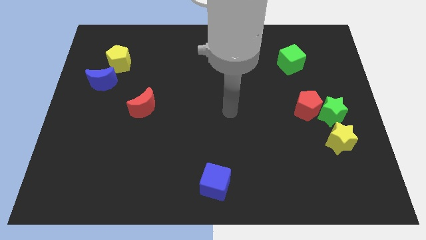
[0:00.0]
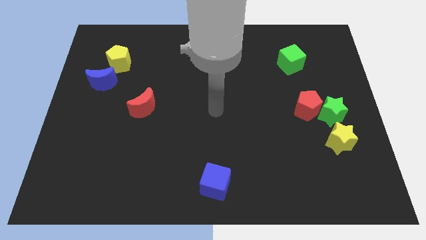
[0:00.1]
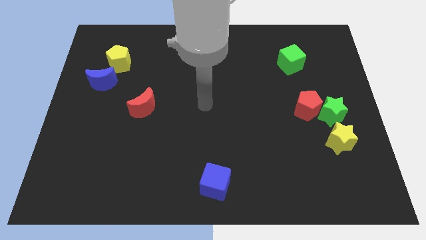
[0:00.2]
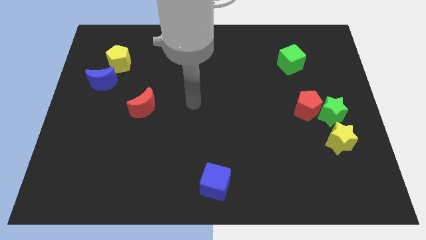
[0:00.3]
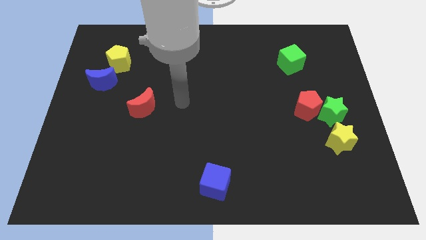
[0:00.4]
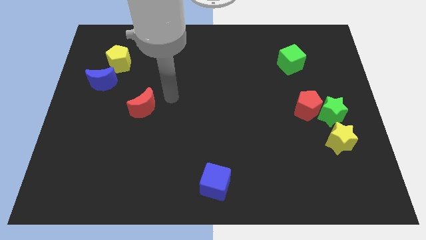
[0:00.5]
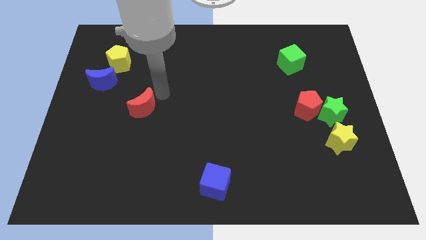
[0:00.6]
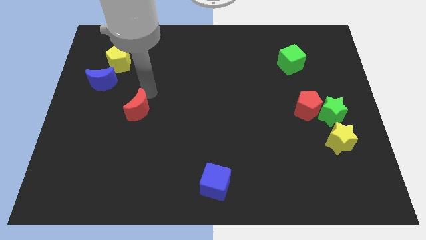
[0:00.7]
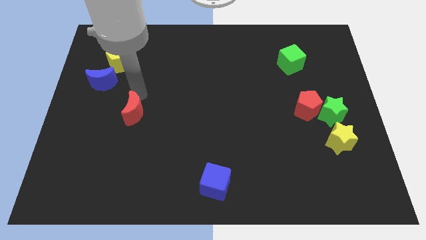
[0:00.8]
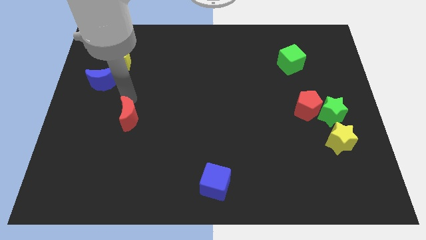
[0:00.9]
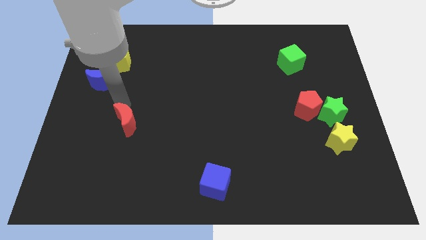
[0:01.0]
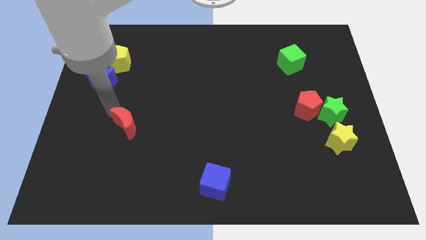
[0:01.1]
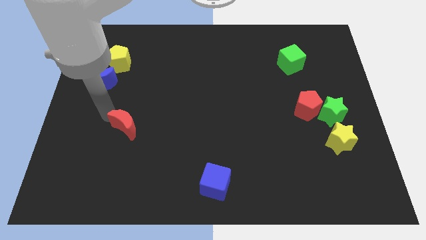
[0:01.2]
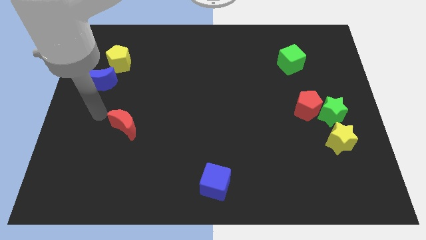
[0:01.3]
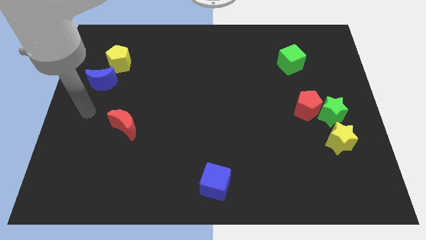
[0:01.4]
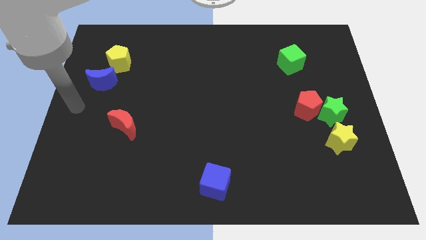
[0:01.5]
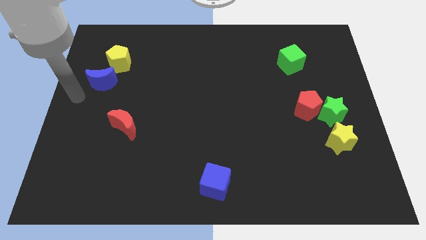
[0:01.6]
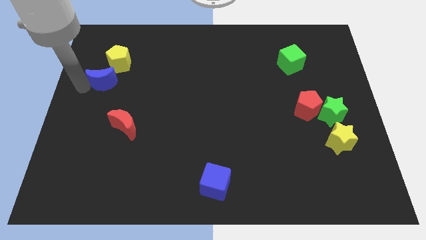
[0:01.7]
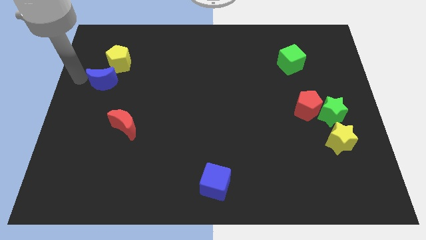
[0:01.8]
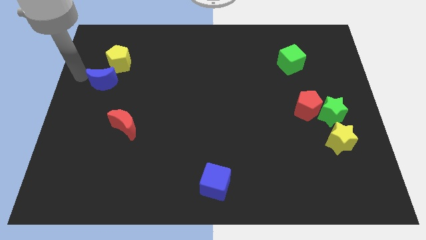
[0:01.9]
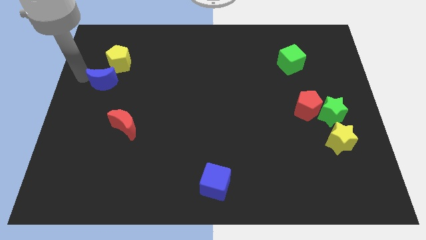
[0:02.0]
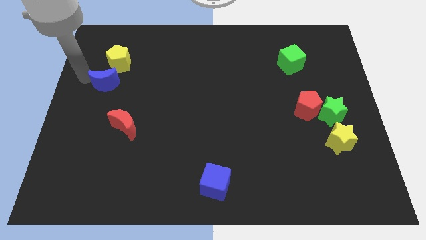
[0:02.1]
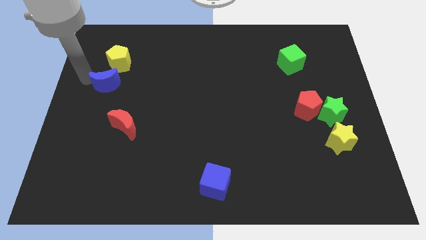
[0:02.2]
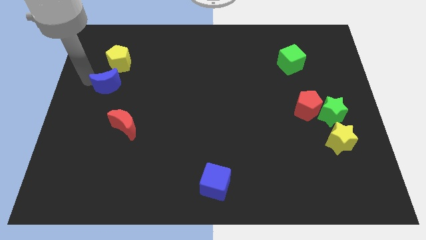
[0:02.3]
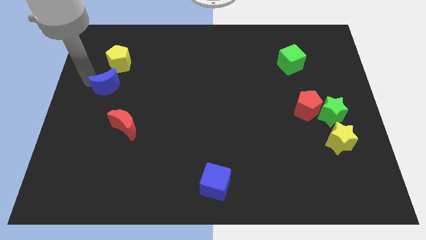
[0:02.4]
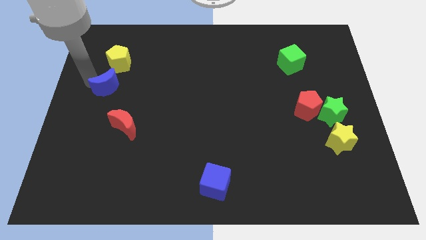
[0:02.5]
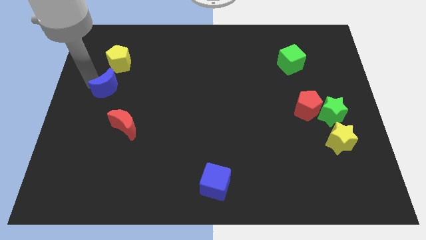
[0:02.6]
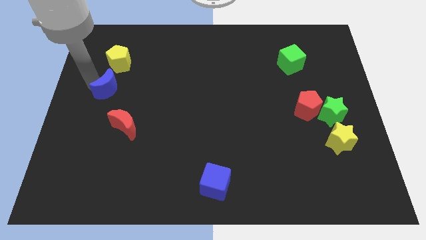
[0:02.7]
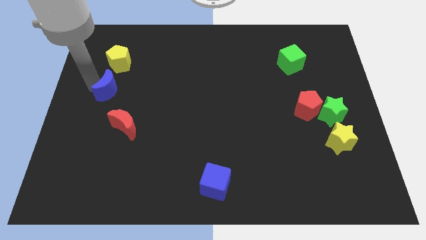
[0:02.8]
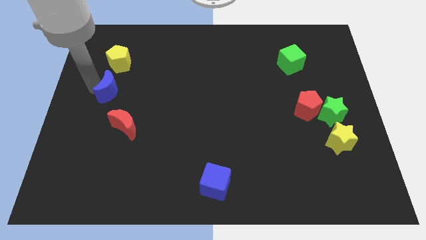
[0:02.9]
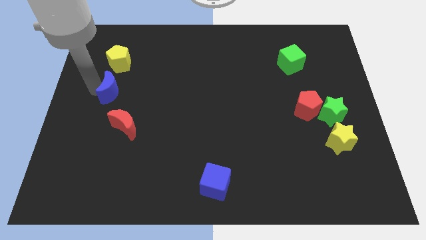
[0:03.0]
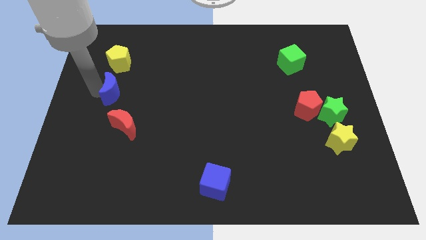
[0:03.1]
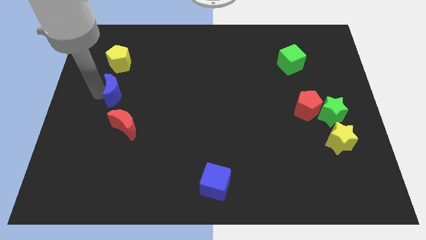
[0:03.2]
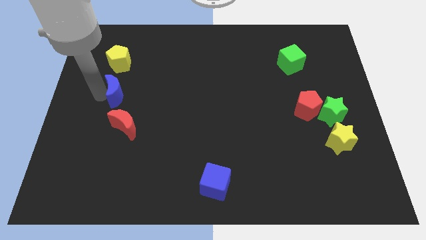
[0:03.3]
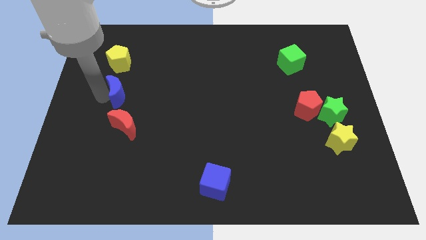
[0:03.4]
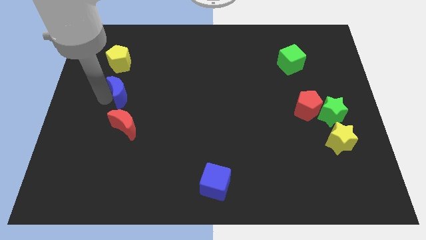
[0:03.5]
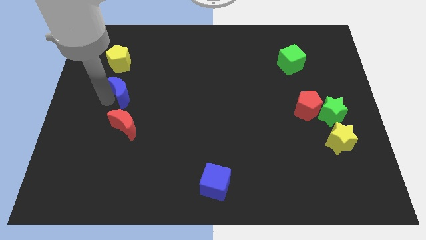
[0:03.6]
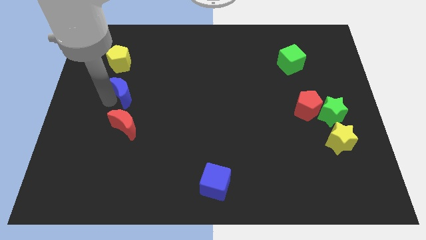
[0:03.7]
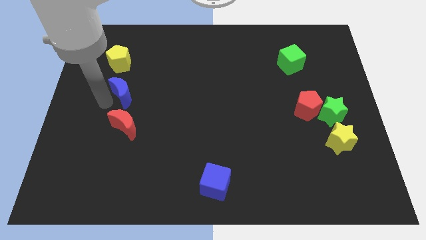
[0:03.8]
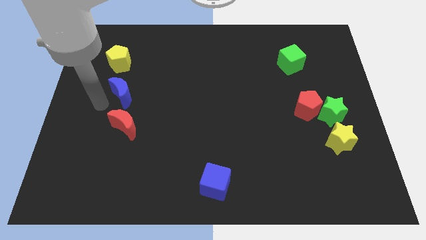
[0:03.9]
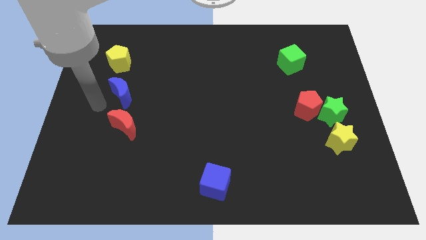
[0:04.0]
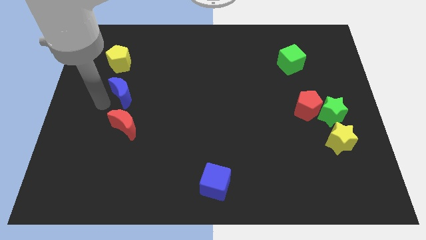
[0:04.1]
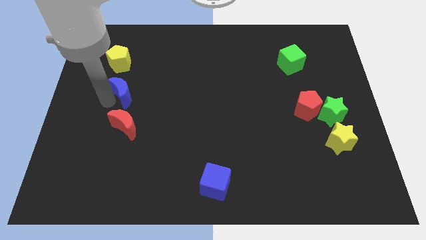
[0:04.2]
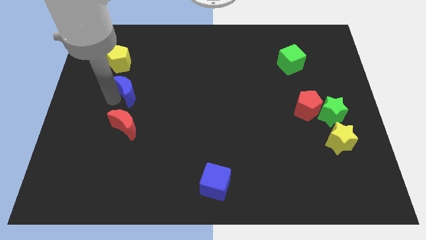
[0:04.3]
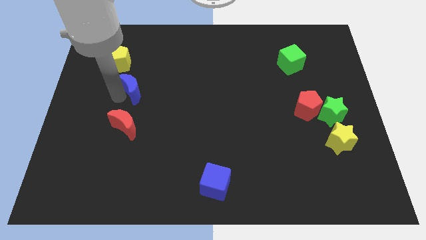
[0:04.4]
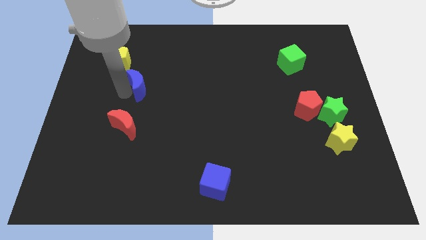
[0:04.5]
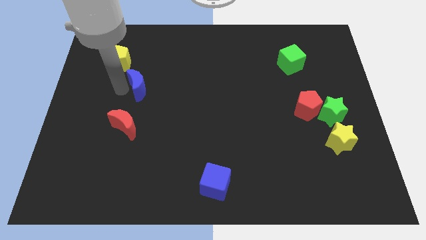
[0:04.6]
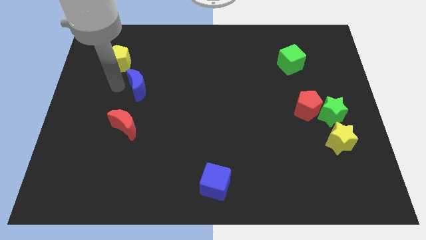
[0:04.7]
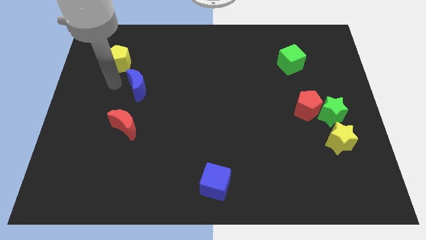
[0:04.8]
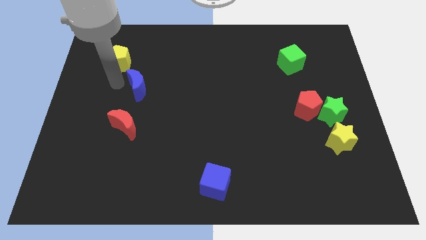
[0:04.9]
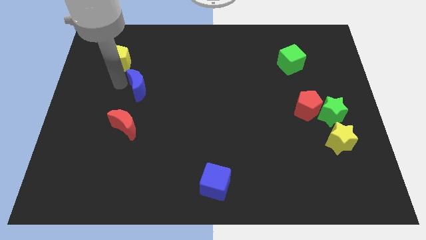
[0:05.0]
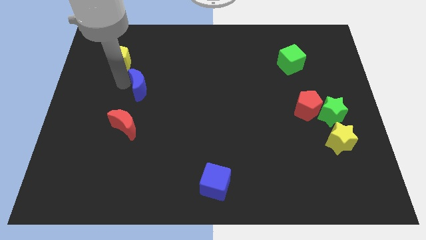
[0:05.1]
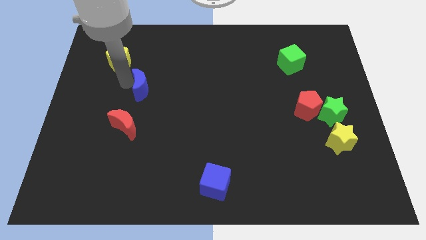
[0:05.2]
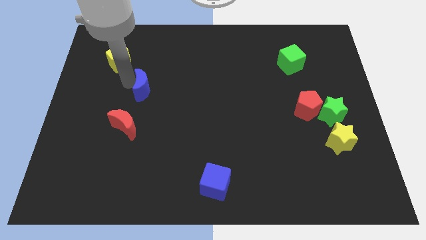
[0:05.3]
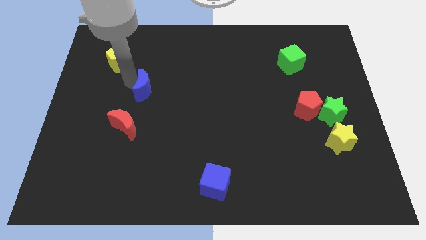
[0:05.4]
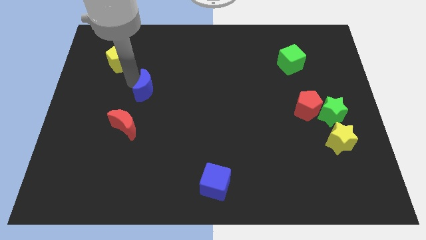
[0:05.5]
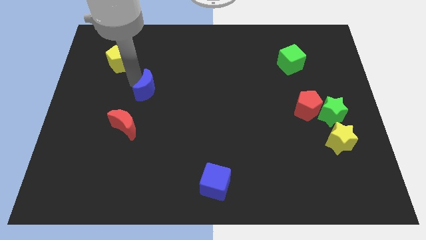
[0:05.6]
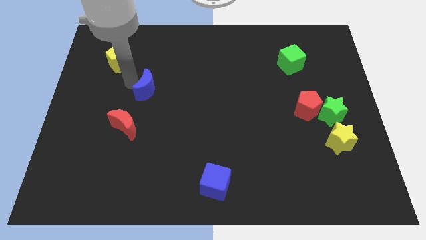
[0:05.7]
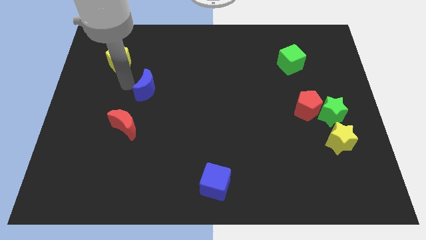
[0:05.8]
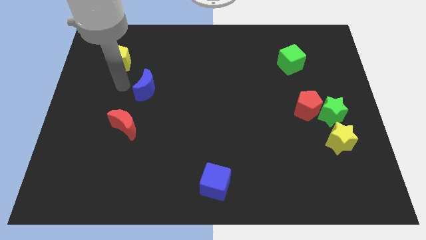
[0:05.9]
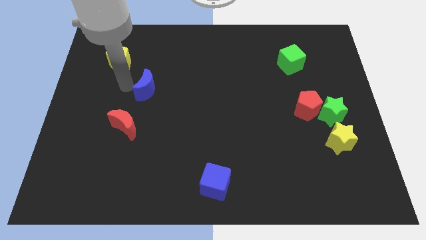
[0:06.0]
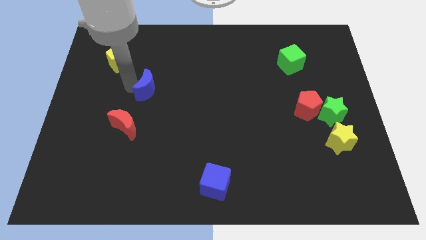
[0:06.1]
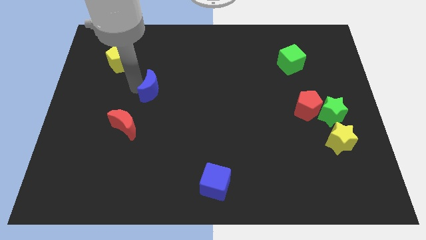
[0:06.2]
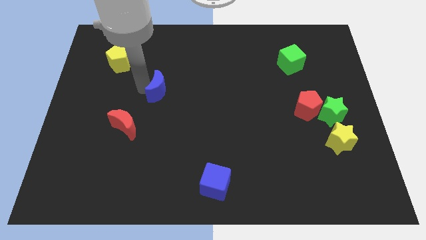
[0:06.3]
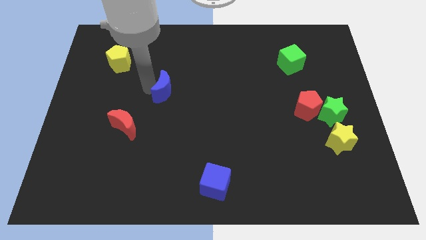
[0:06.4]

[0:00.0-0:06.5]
put the blue moon to the center of the board
